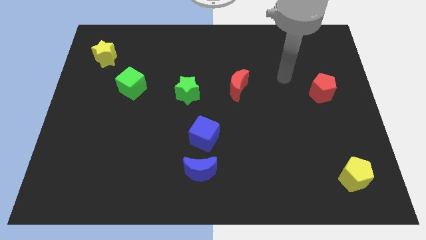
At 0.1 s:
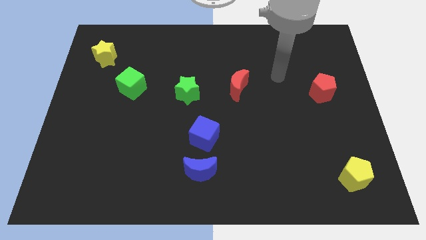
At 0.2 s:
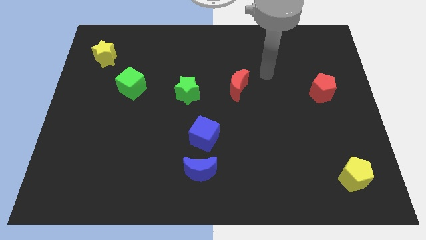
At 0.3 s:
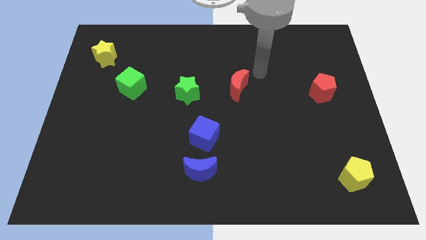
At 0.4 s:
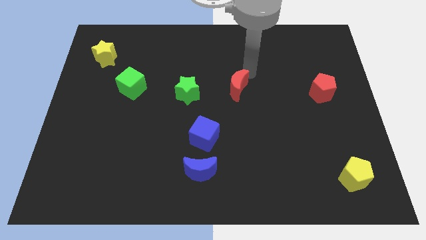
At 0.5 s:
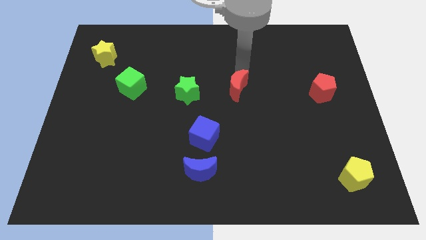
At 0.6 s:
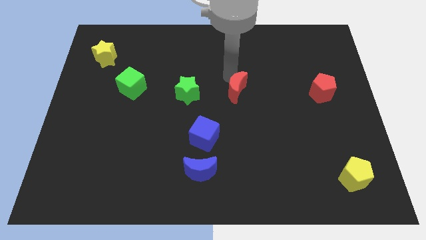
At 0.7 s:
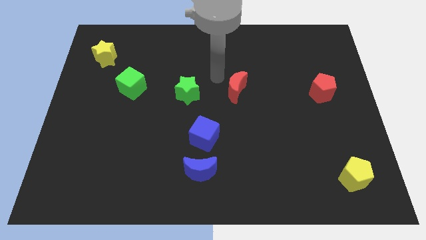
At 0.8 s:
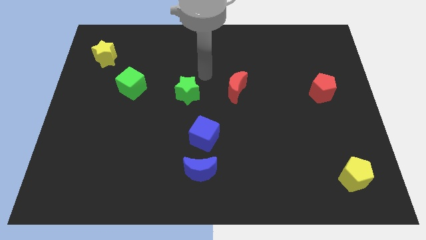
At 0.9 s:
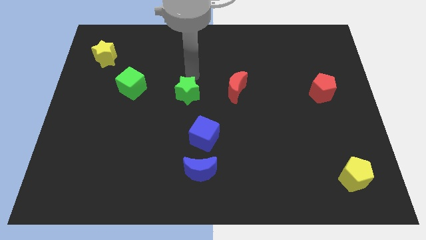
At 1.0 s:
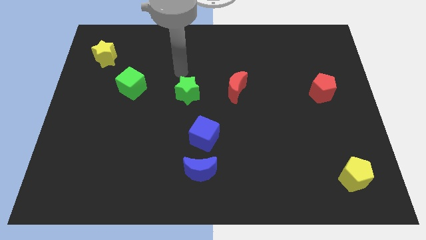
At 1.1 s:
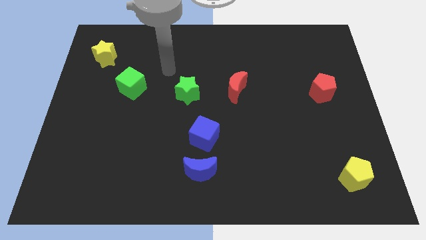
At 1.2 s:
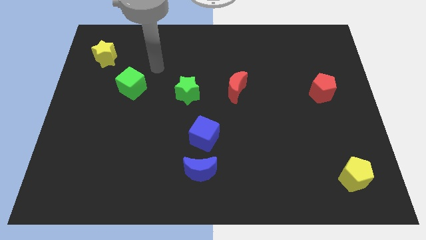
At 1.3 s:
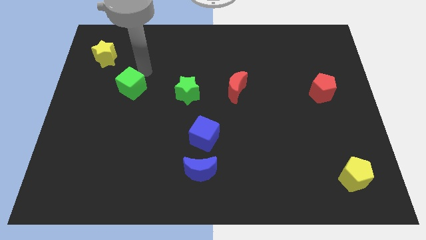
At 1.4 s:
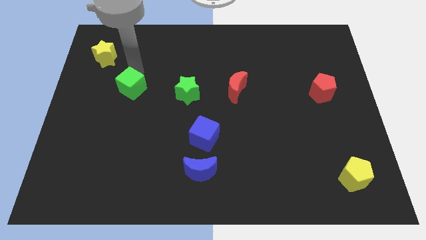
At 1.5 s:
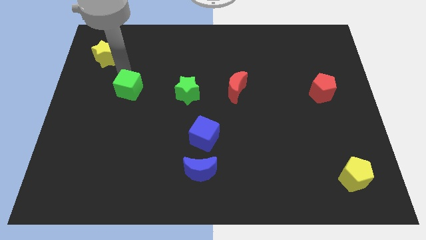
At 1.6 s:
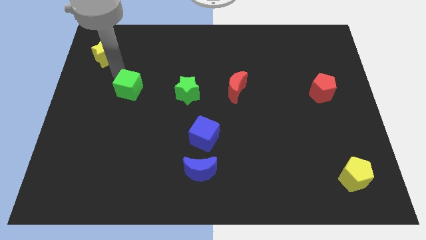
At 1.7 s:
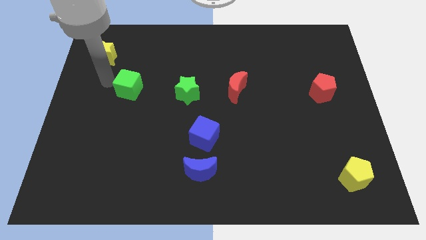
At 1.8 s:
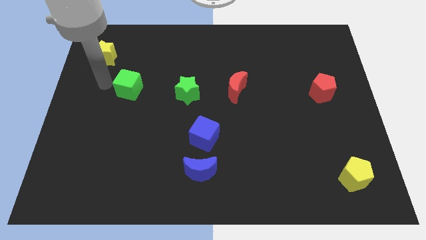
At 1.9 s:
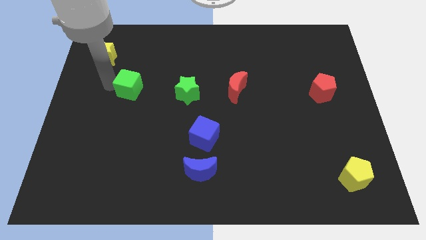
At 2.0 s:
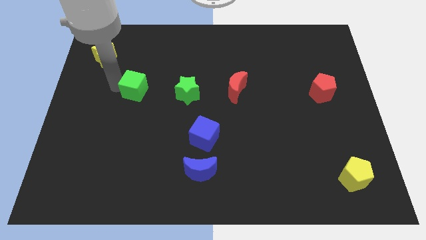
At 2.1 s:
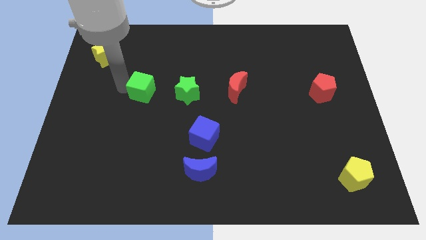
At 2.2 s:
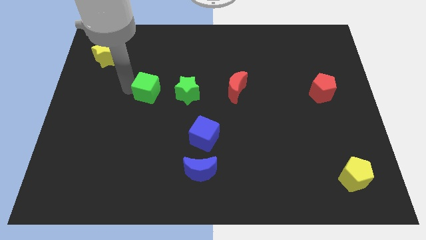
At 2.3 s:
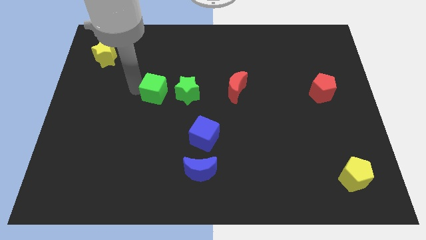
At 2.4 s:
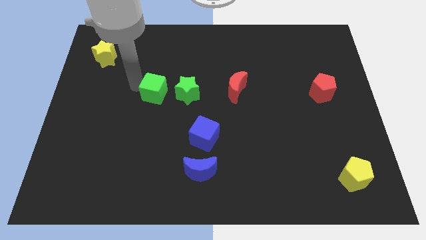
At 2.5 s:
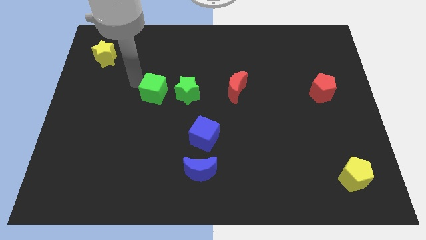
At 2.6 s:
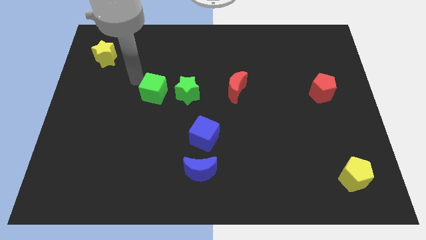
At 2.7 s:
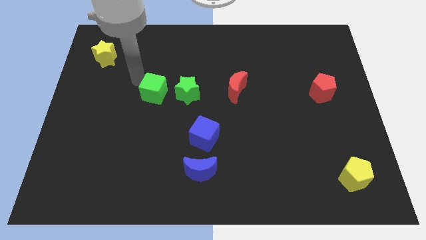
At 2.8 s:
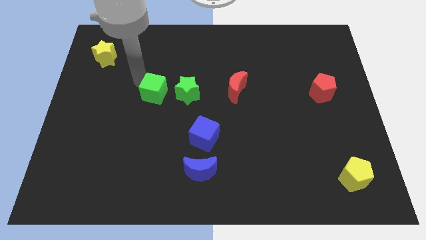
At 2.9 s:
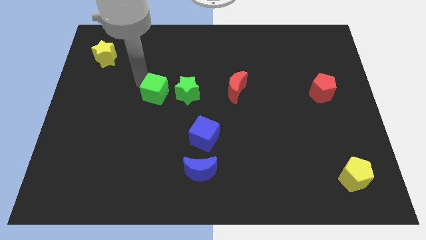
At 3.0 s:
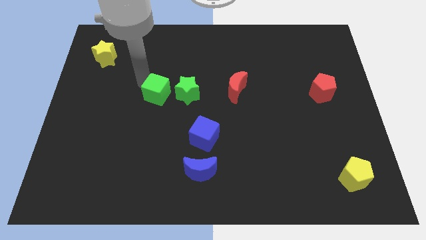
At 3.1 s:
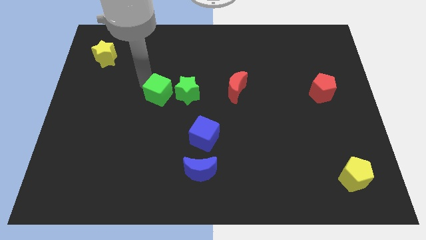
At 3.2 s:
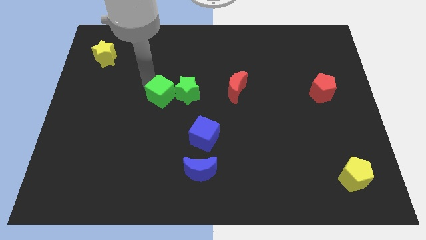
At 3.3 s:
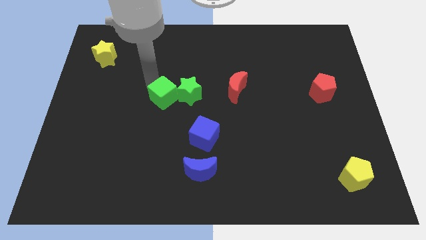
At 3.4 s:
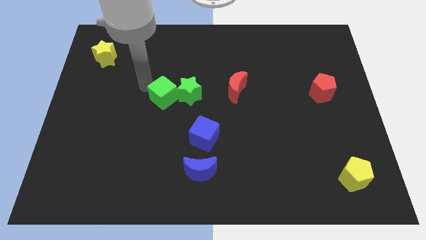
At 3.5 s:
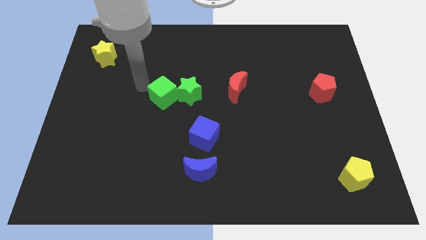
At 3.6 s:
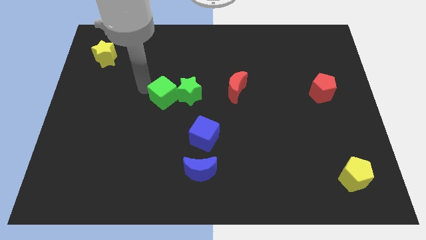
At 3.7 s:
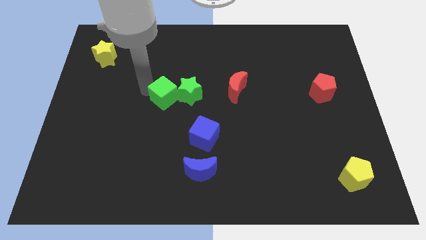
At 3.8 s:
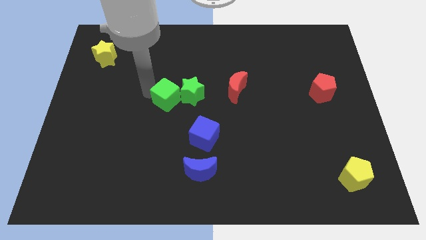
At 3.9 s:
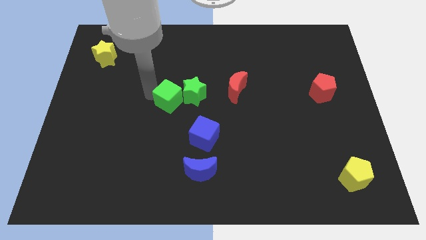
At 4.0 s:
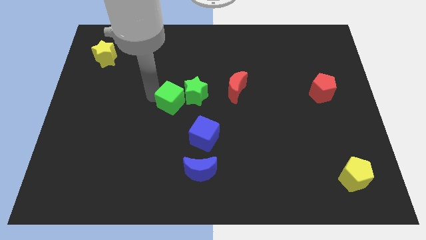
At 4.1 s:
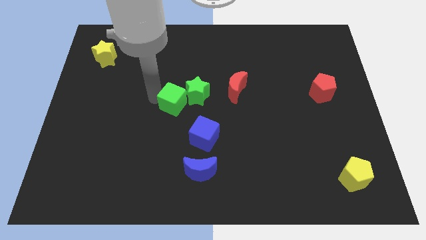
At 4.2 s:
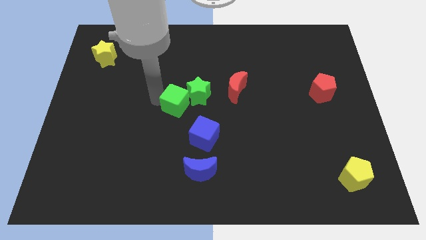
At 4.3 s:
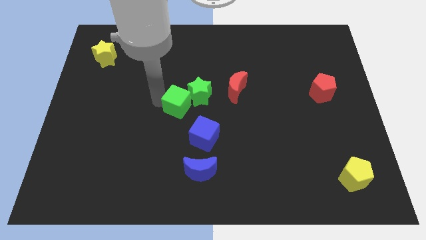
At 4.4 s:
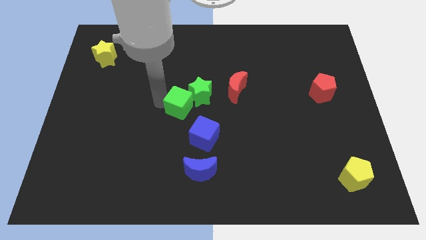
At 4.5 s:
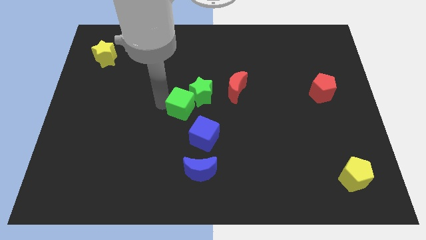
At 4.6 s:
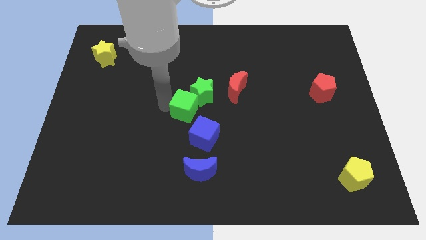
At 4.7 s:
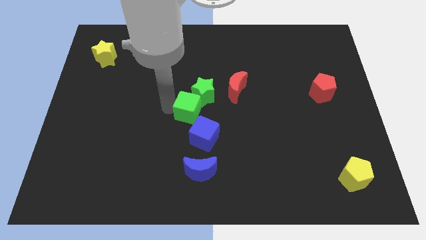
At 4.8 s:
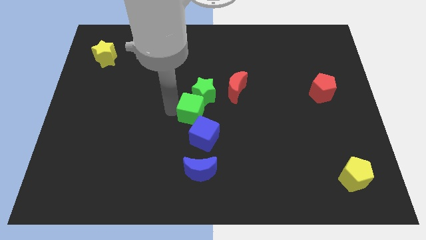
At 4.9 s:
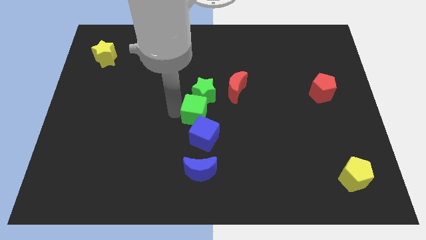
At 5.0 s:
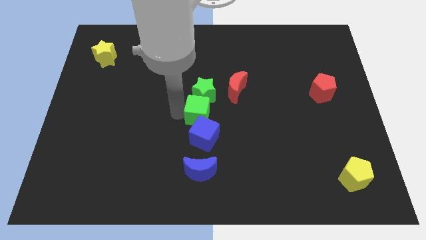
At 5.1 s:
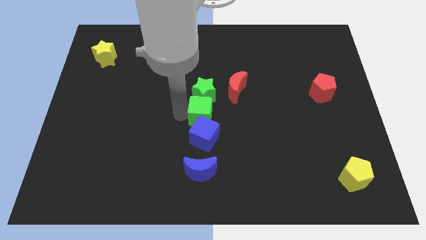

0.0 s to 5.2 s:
slide the green cube to the bottom right side of the green star

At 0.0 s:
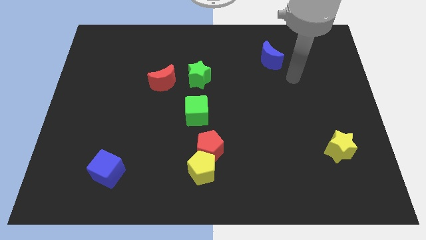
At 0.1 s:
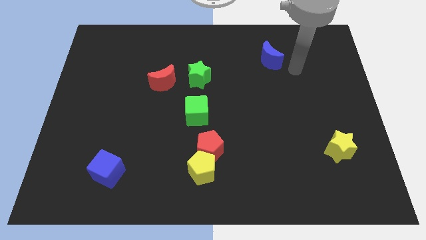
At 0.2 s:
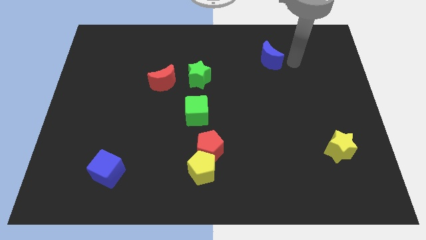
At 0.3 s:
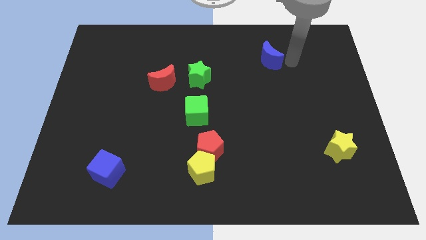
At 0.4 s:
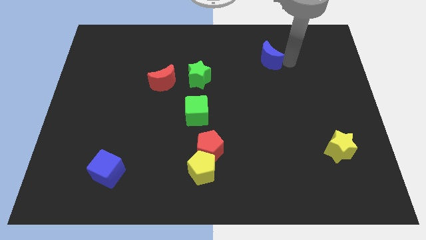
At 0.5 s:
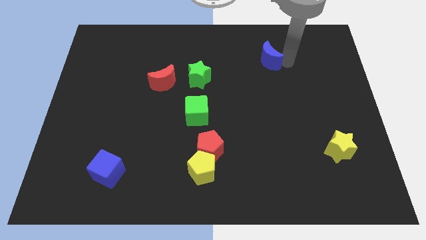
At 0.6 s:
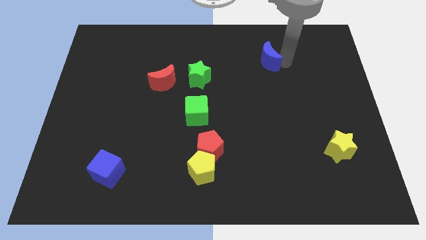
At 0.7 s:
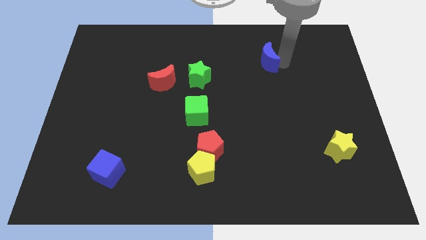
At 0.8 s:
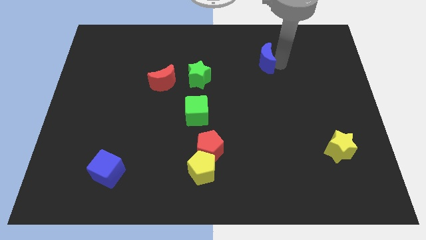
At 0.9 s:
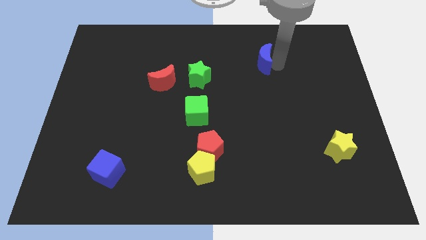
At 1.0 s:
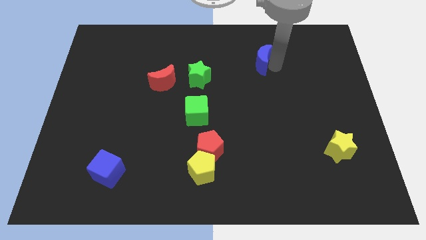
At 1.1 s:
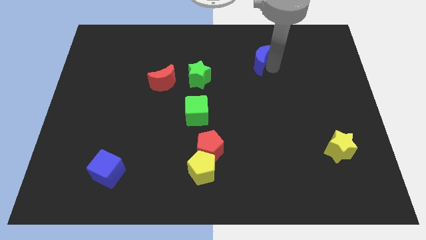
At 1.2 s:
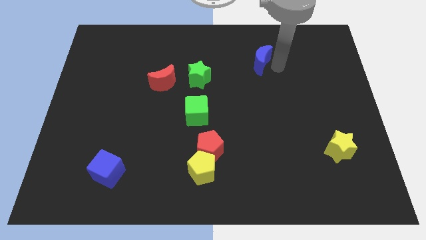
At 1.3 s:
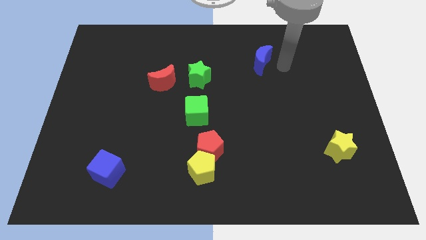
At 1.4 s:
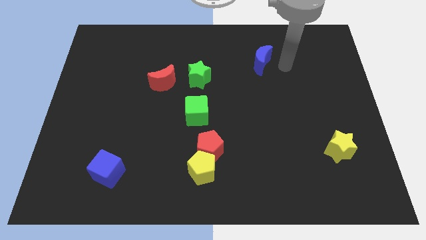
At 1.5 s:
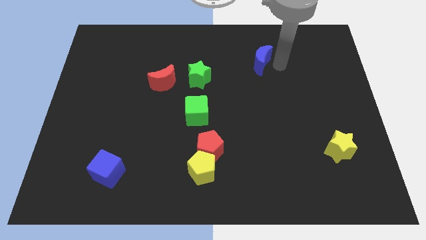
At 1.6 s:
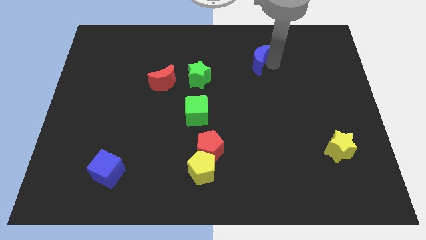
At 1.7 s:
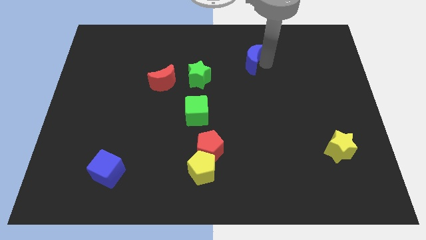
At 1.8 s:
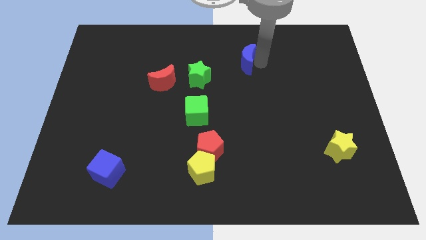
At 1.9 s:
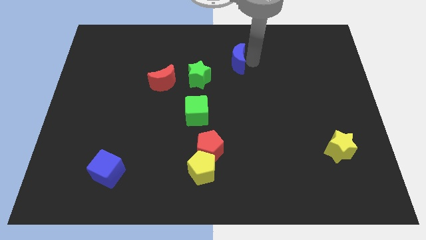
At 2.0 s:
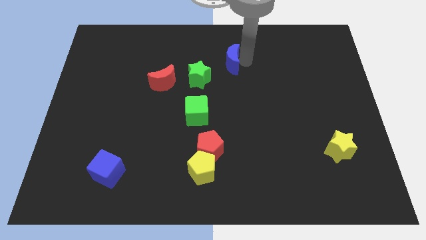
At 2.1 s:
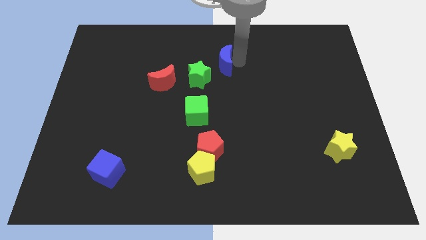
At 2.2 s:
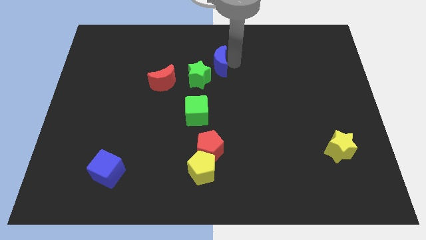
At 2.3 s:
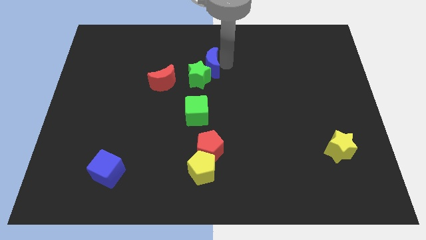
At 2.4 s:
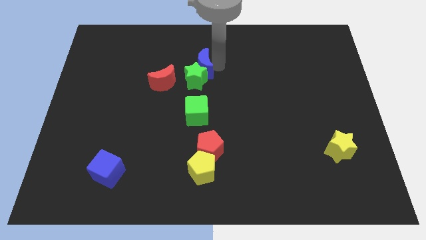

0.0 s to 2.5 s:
put the blue moon to the top left of the green star
